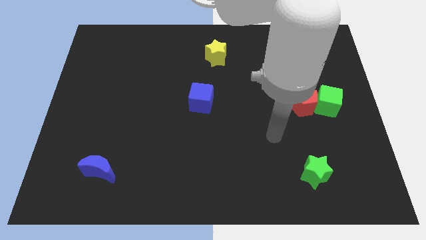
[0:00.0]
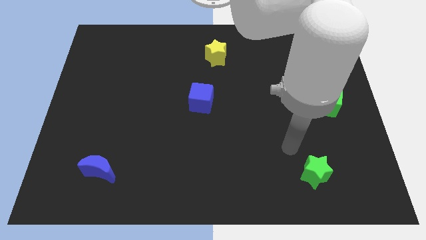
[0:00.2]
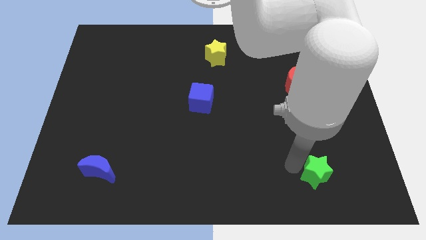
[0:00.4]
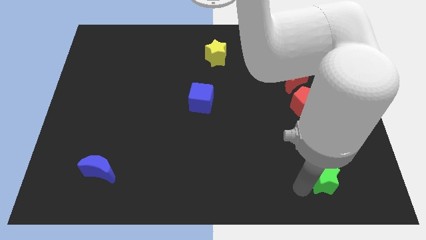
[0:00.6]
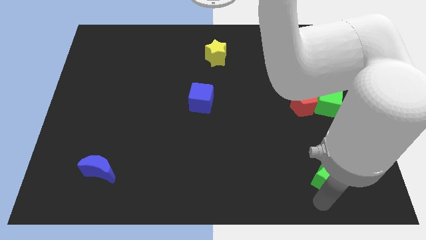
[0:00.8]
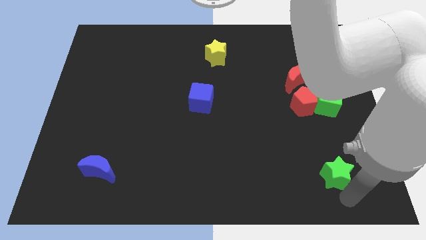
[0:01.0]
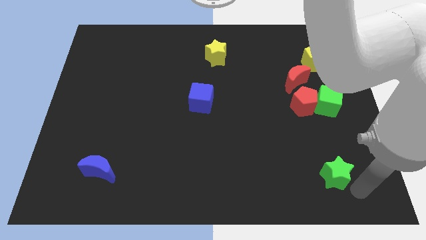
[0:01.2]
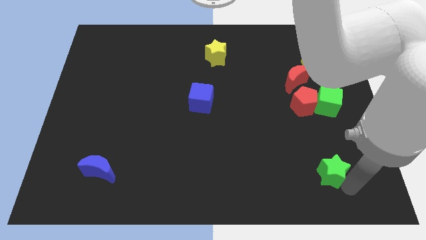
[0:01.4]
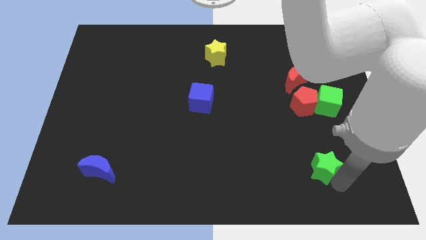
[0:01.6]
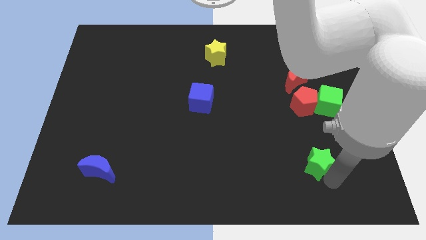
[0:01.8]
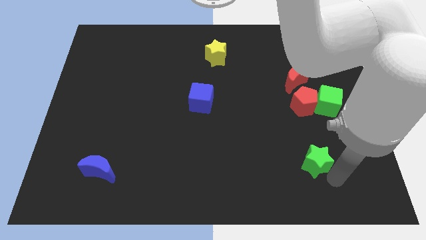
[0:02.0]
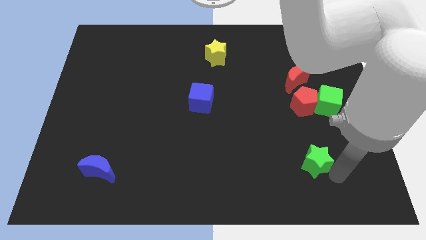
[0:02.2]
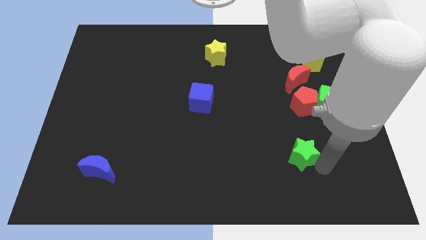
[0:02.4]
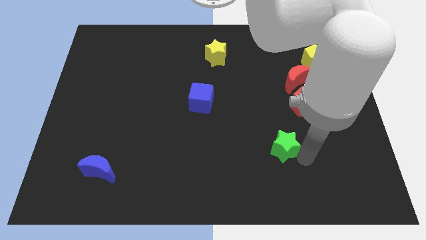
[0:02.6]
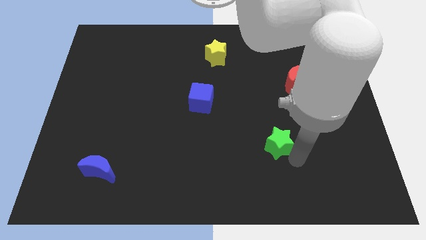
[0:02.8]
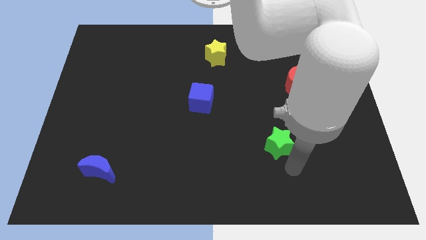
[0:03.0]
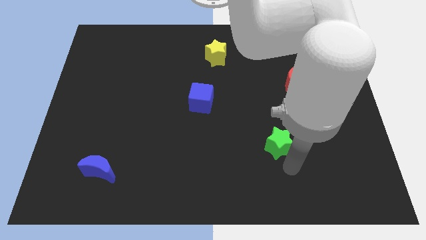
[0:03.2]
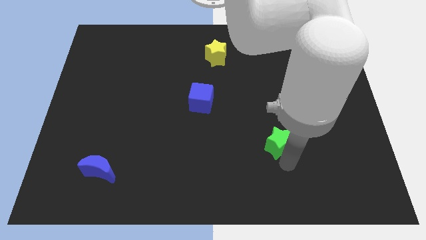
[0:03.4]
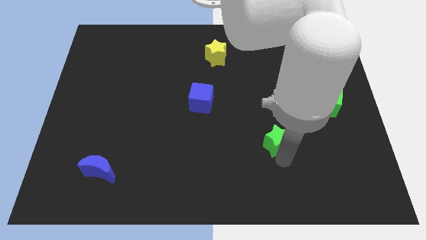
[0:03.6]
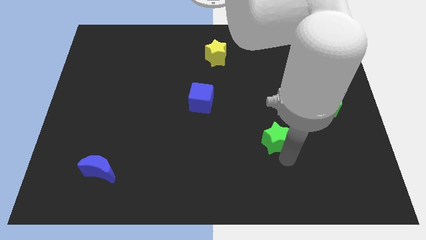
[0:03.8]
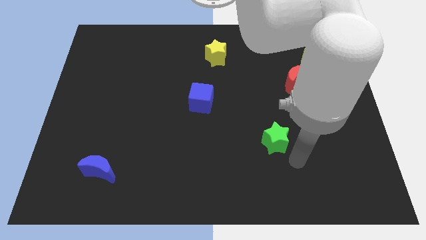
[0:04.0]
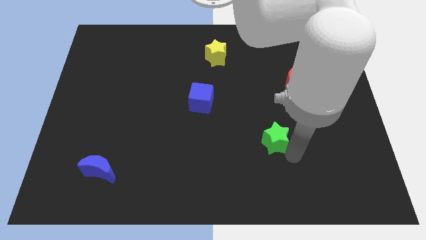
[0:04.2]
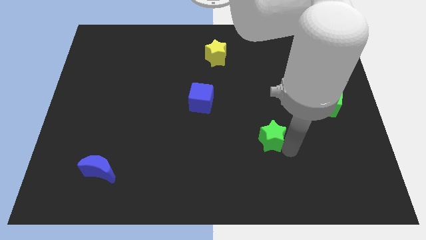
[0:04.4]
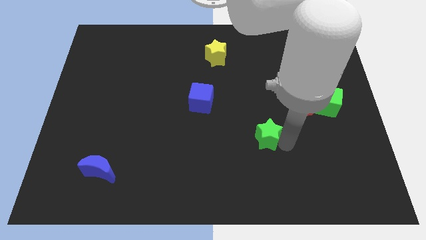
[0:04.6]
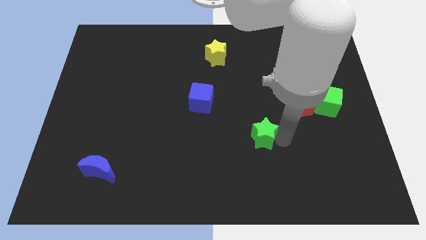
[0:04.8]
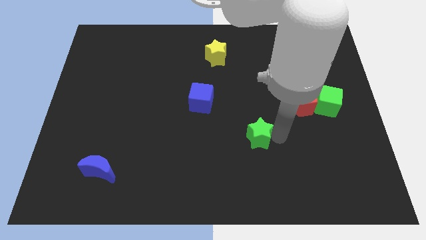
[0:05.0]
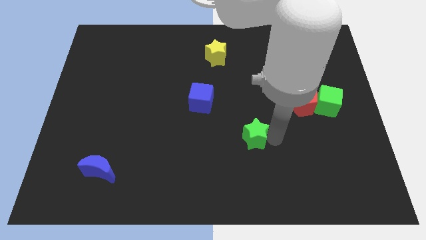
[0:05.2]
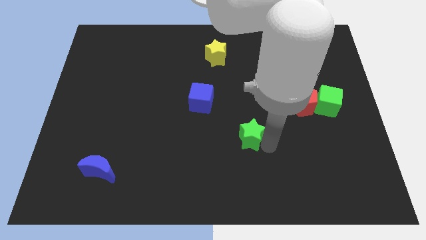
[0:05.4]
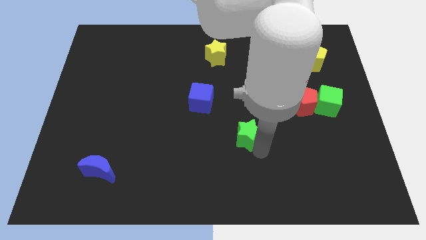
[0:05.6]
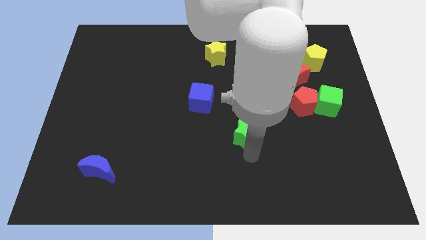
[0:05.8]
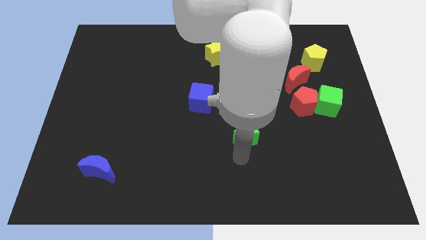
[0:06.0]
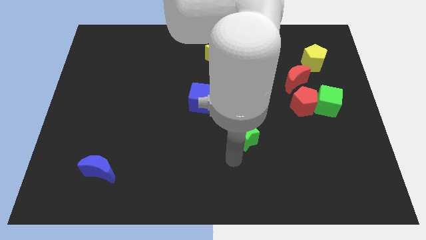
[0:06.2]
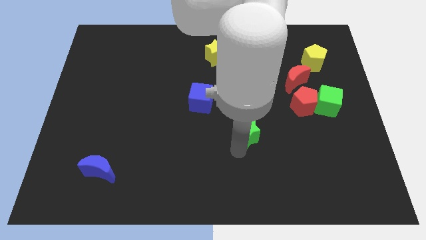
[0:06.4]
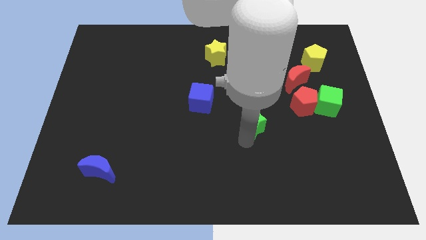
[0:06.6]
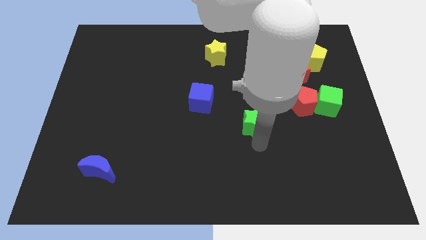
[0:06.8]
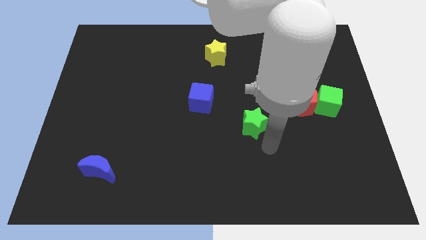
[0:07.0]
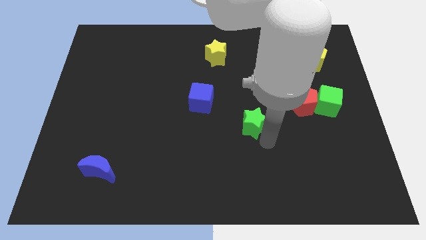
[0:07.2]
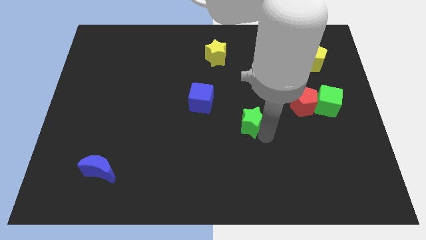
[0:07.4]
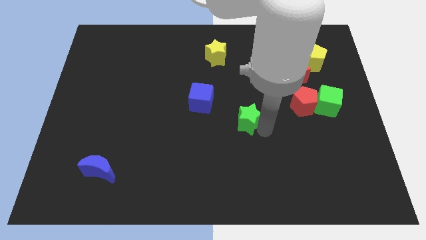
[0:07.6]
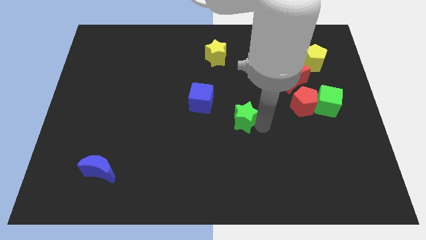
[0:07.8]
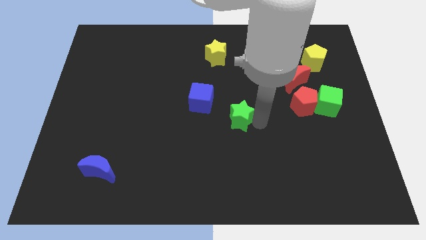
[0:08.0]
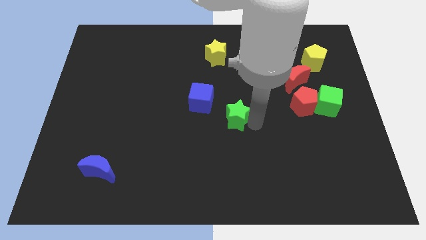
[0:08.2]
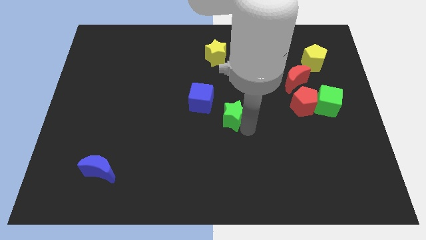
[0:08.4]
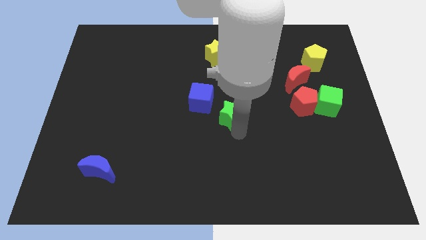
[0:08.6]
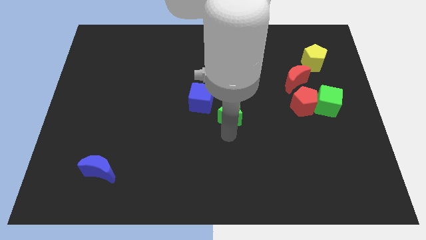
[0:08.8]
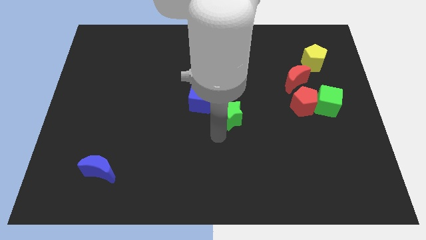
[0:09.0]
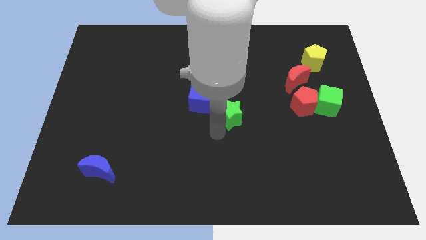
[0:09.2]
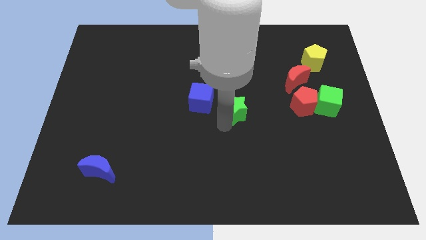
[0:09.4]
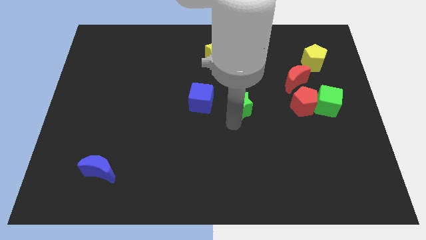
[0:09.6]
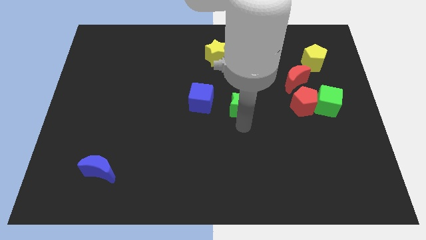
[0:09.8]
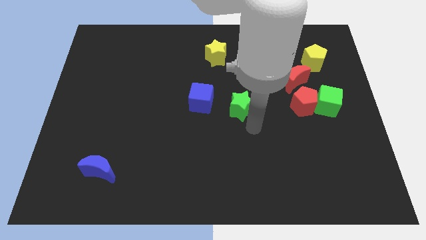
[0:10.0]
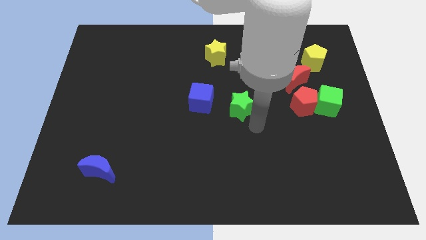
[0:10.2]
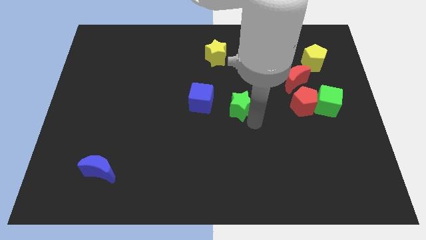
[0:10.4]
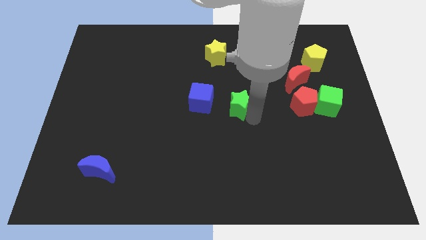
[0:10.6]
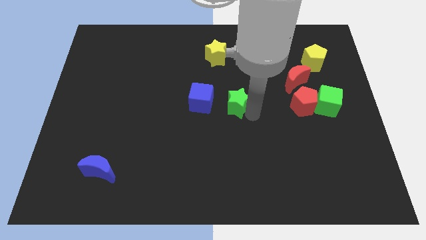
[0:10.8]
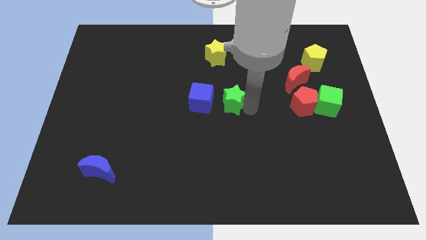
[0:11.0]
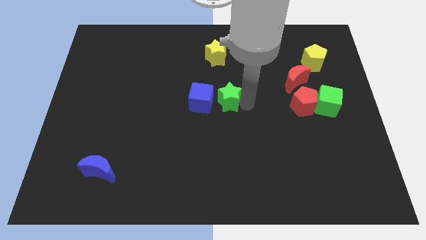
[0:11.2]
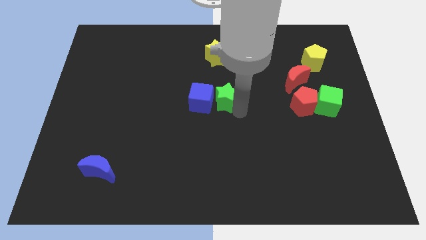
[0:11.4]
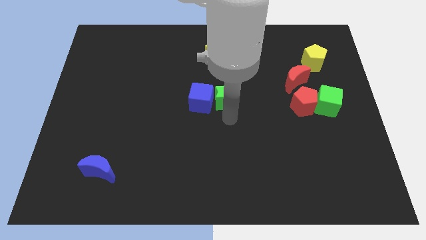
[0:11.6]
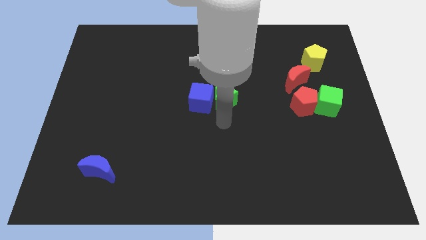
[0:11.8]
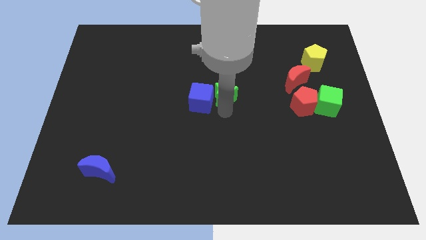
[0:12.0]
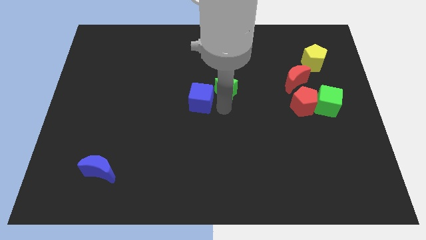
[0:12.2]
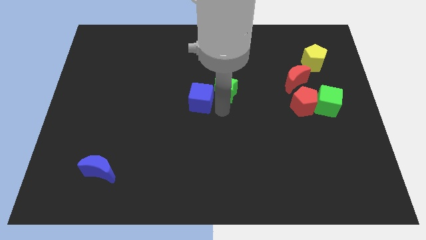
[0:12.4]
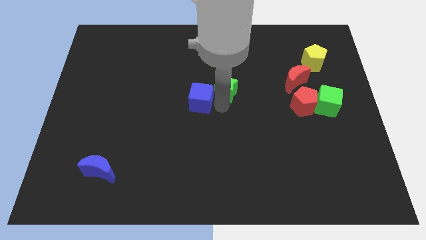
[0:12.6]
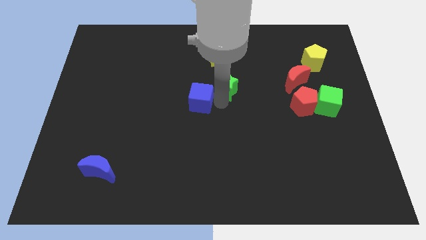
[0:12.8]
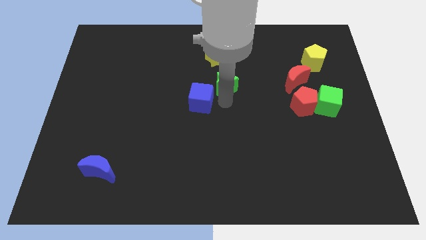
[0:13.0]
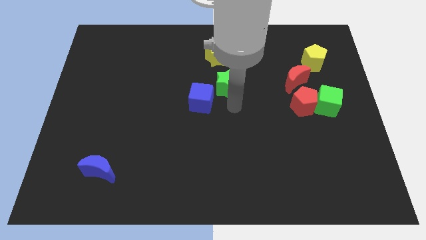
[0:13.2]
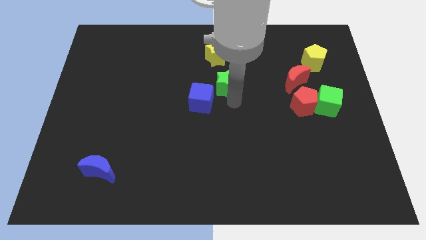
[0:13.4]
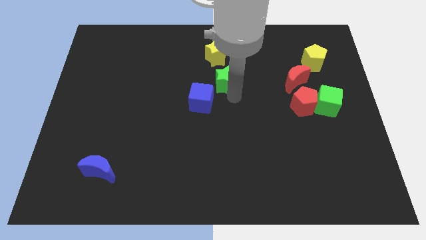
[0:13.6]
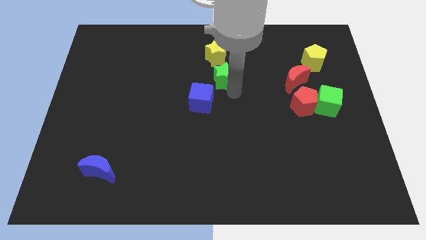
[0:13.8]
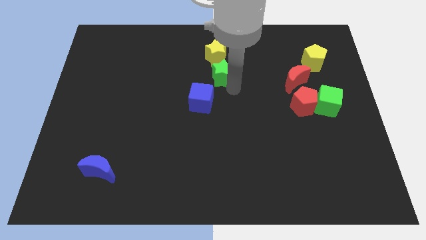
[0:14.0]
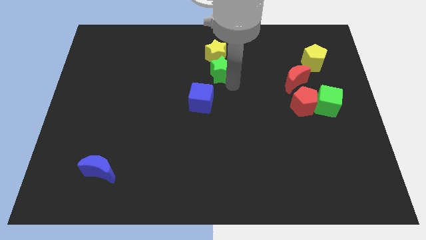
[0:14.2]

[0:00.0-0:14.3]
put the green star to the yellow star

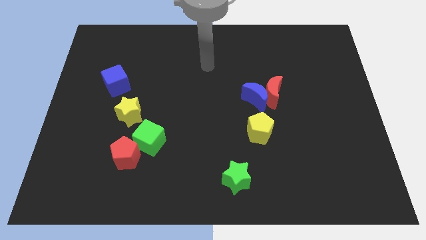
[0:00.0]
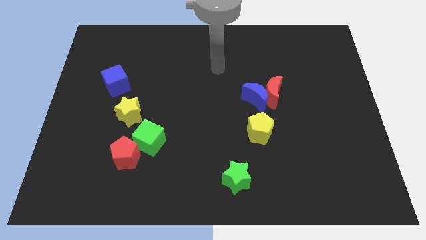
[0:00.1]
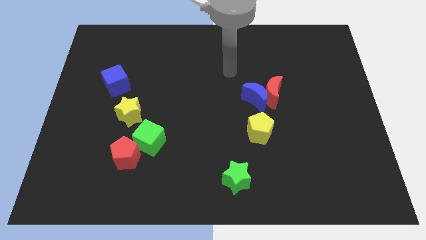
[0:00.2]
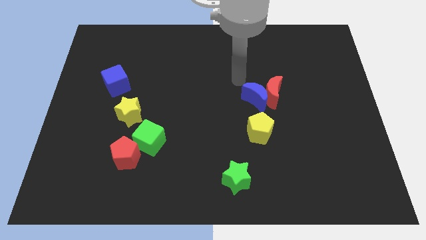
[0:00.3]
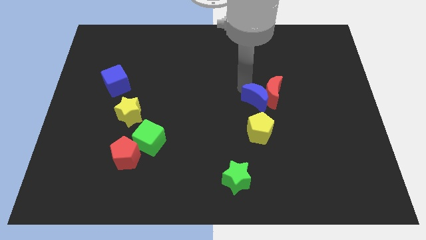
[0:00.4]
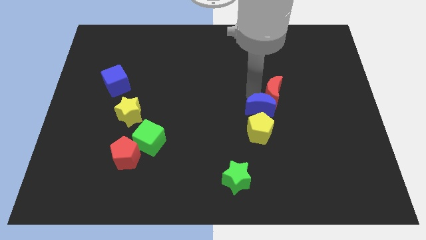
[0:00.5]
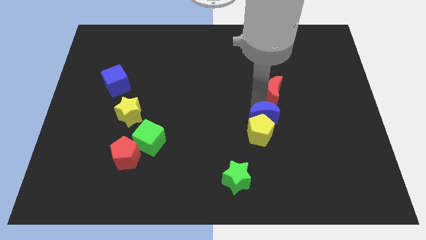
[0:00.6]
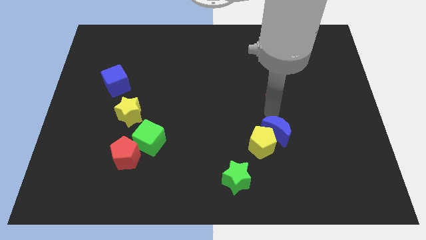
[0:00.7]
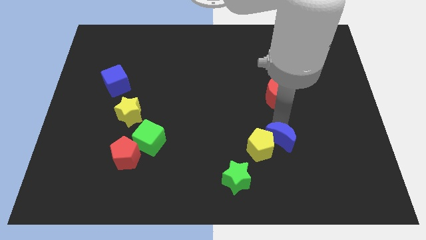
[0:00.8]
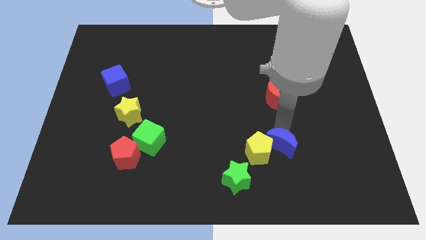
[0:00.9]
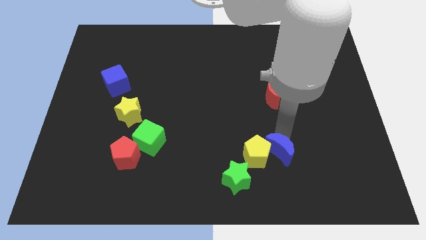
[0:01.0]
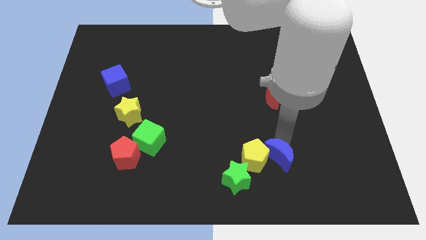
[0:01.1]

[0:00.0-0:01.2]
slide the yellow pentagon to the green star
